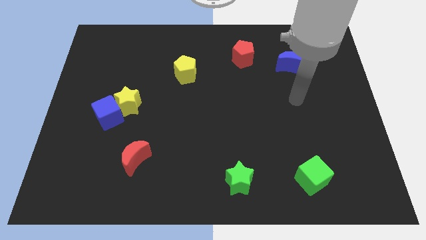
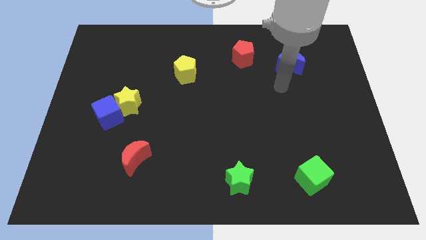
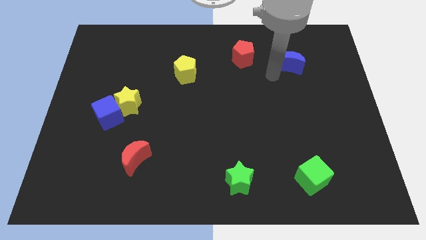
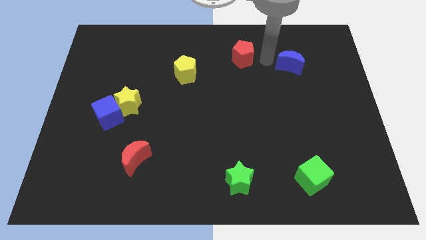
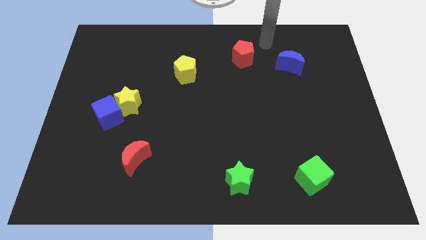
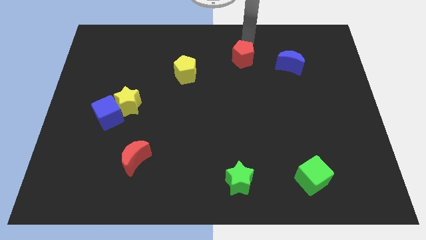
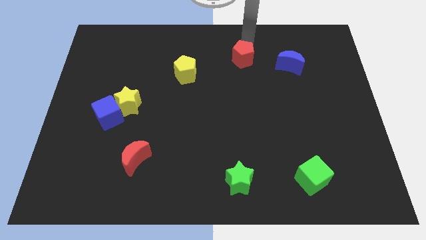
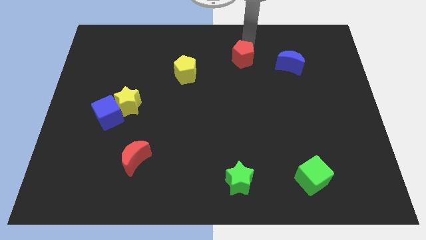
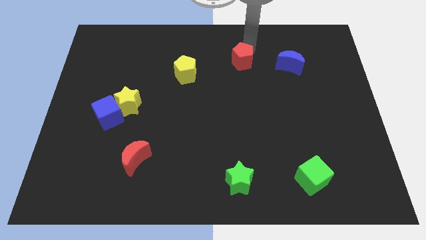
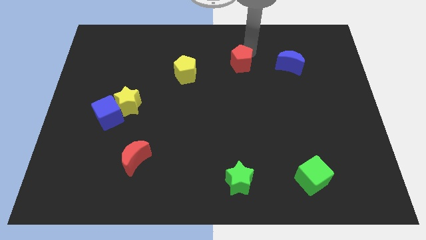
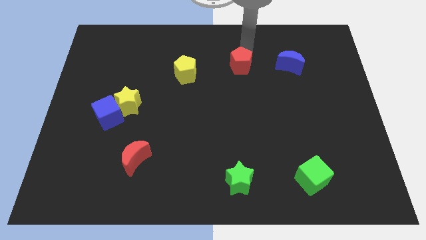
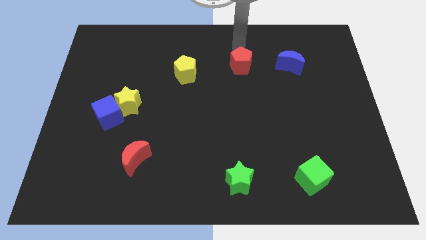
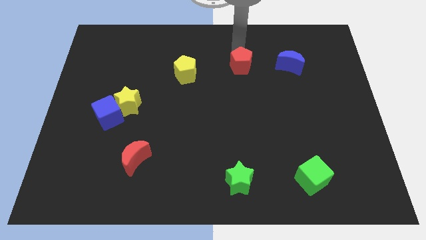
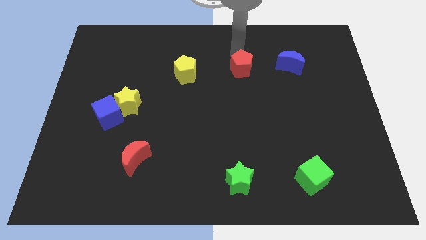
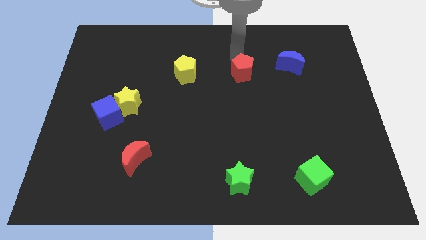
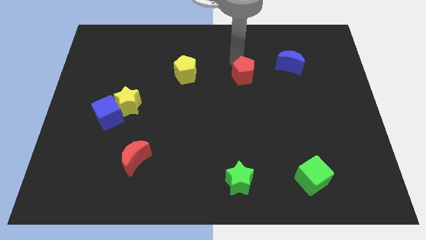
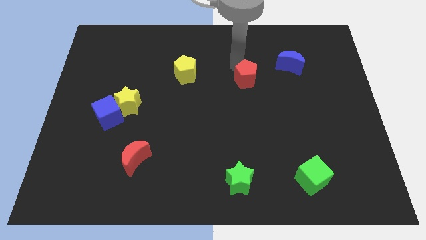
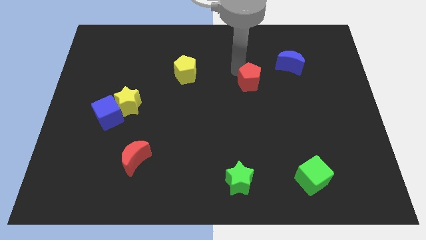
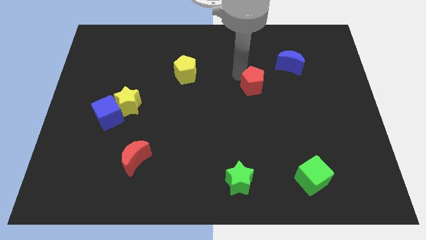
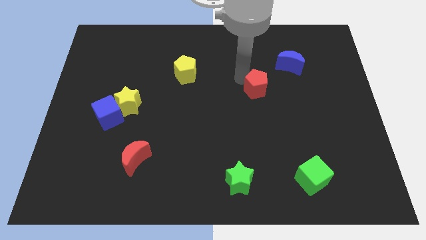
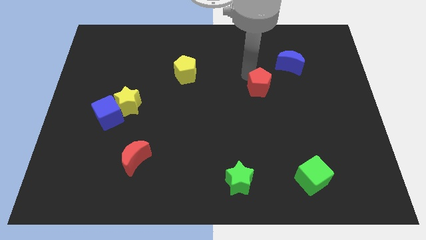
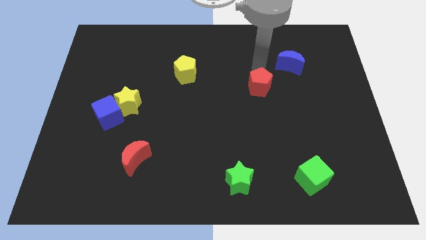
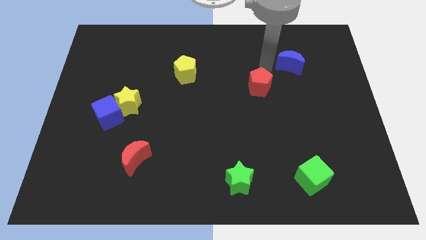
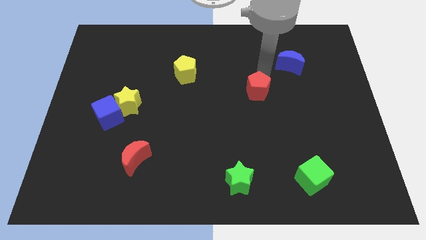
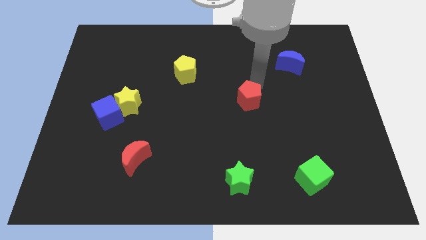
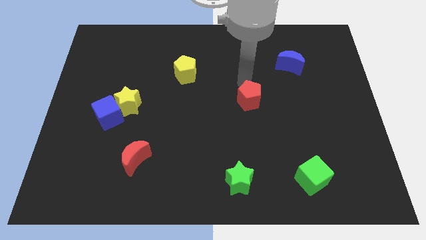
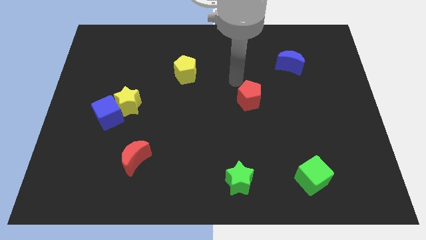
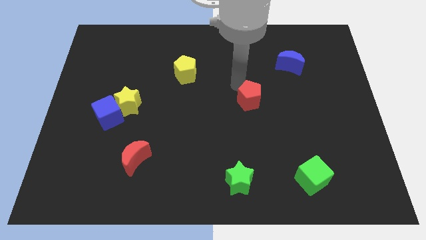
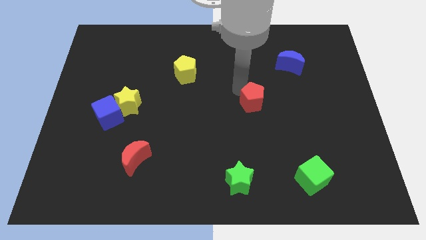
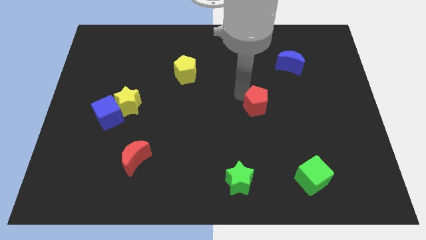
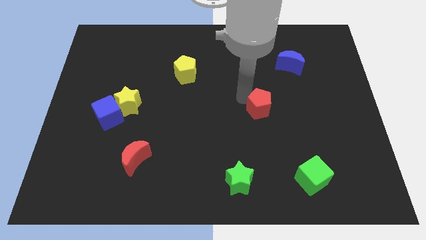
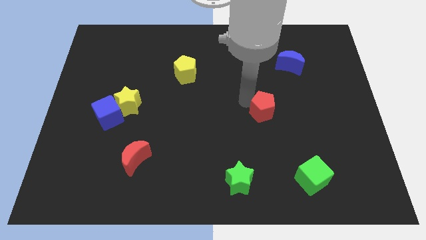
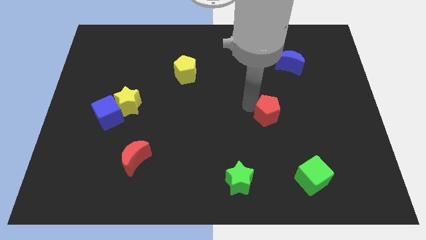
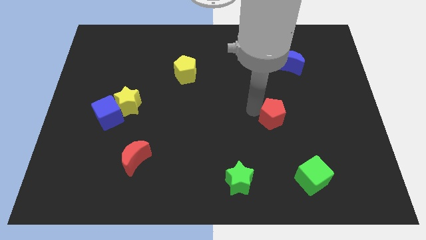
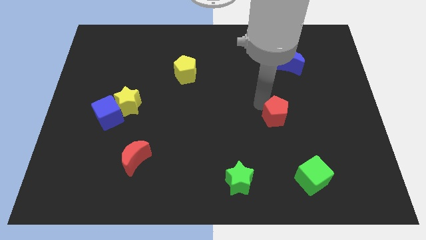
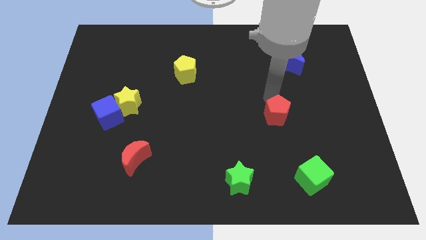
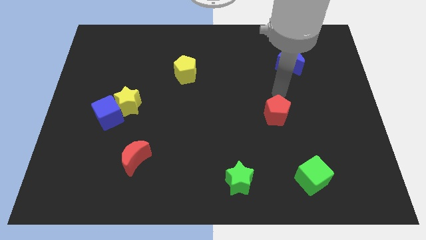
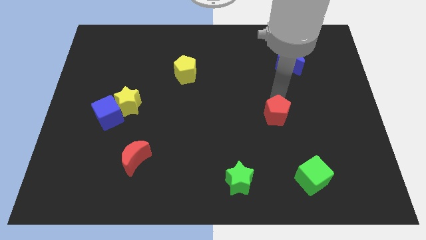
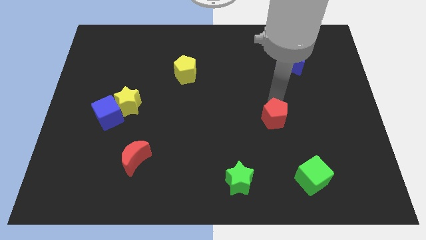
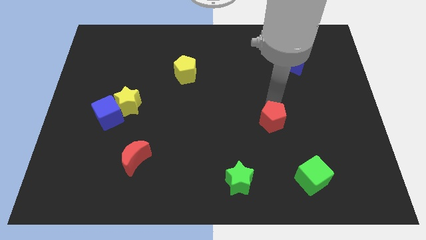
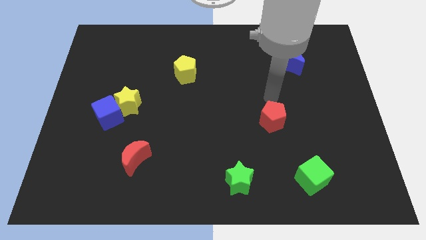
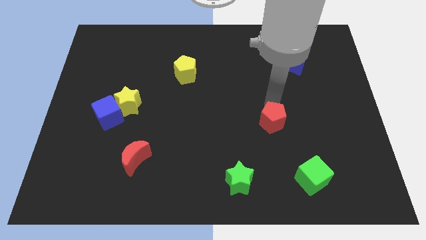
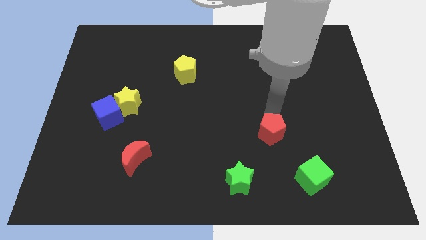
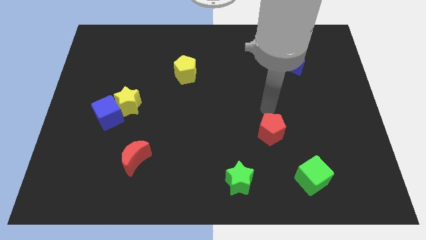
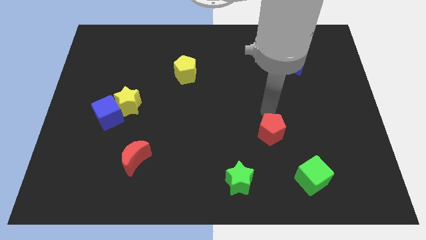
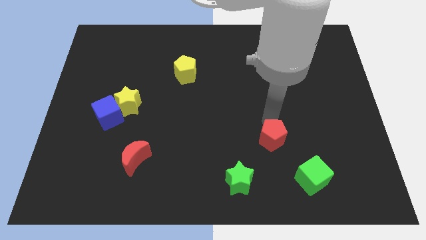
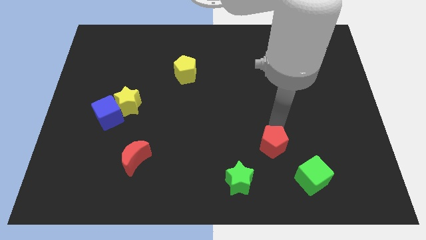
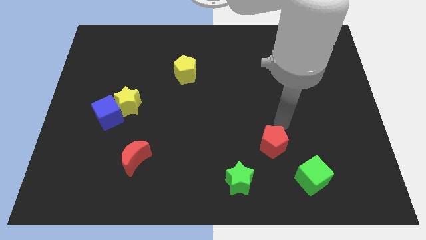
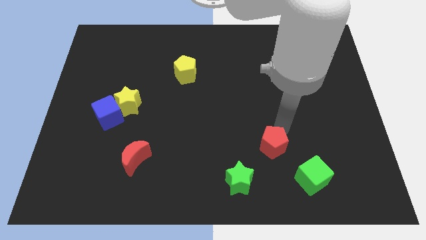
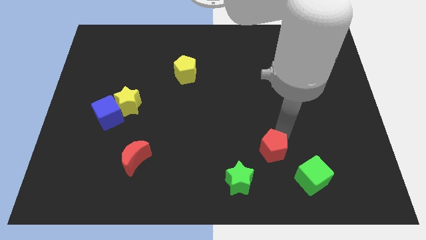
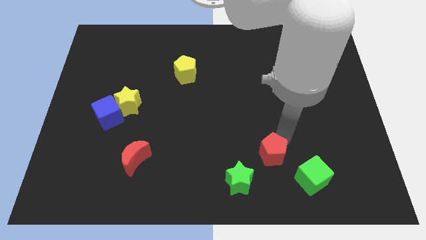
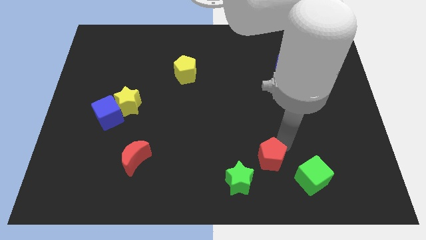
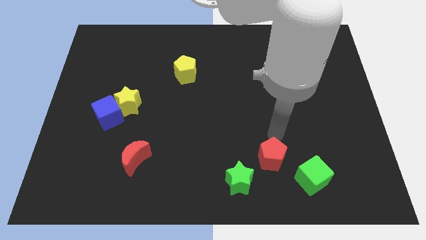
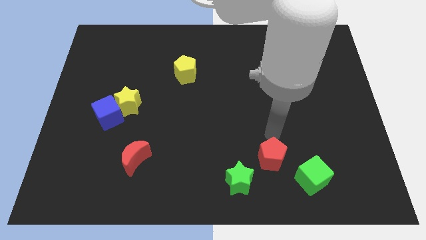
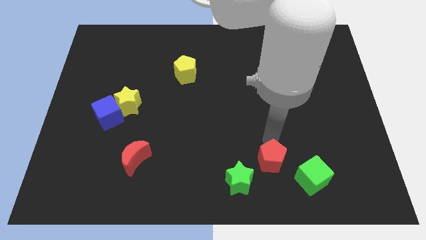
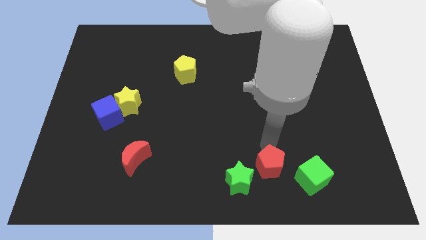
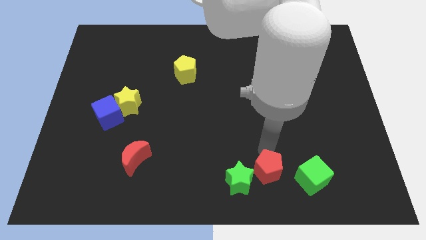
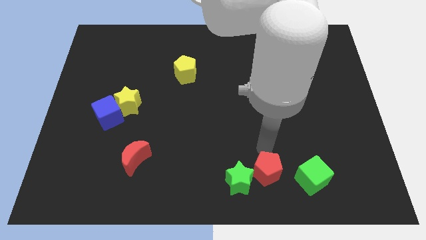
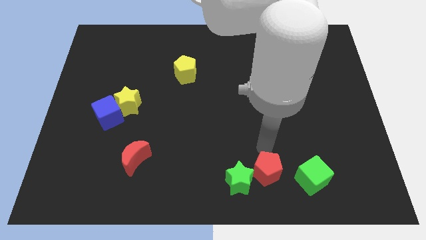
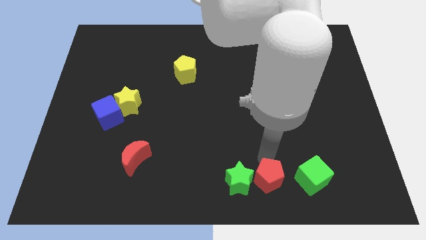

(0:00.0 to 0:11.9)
move the red pentagon to the bottom

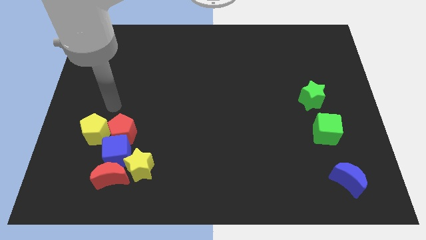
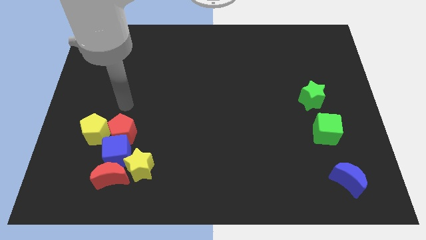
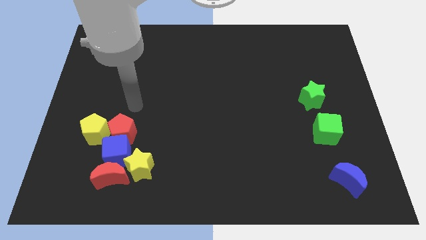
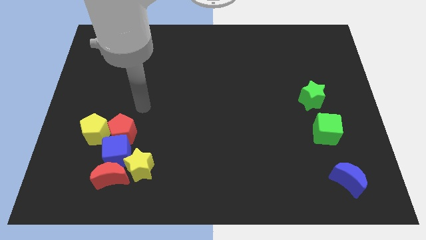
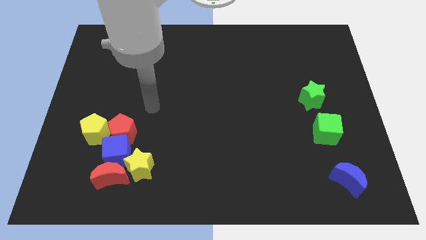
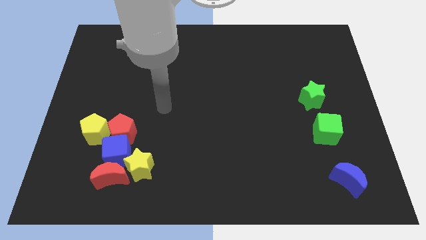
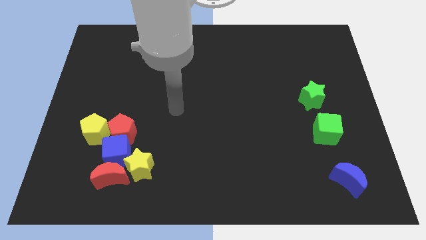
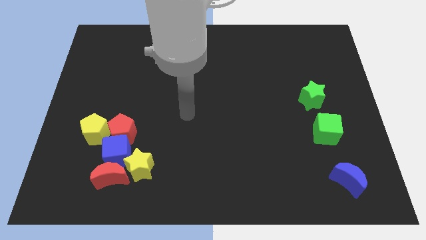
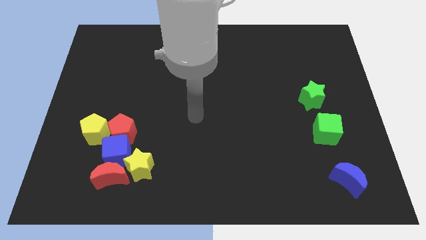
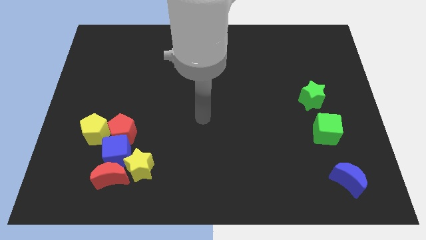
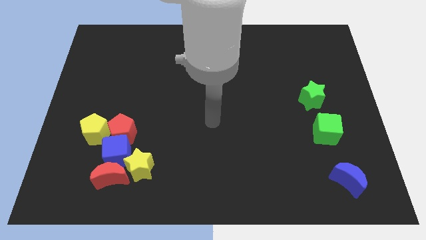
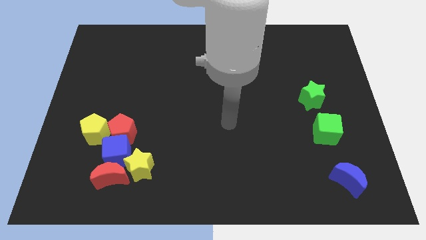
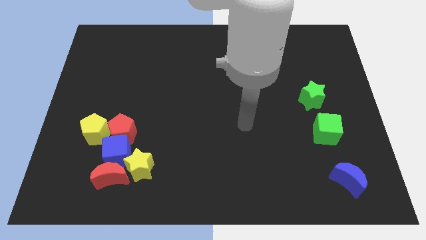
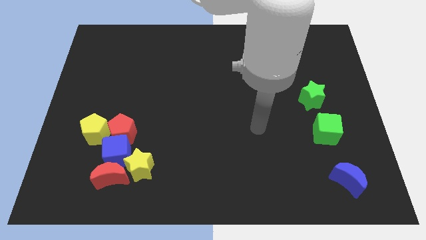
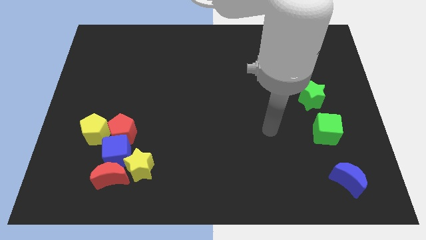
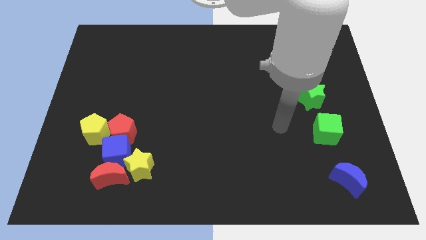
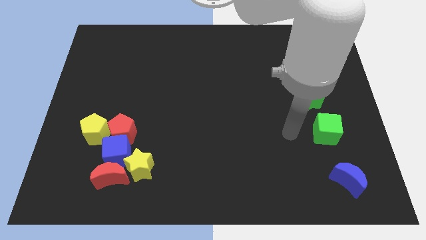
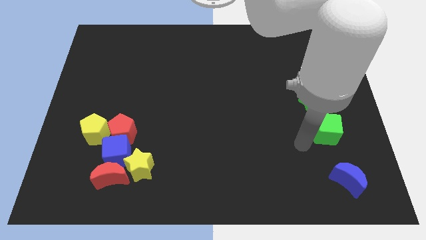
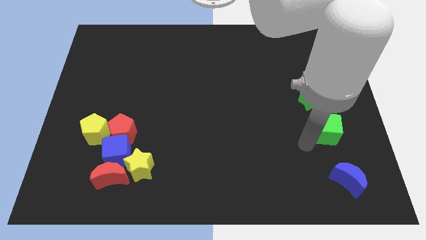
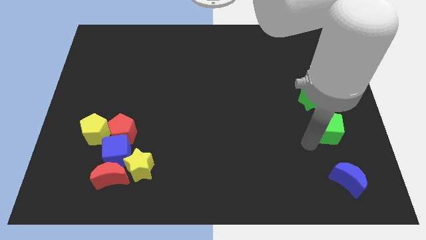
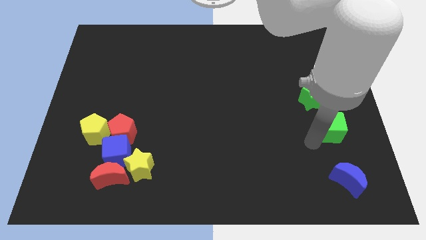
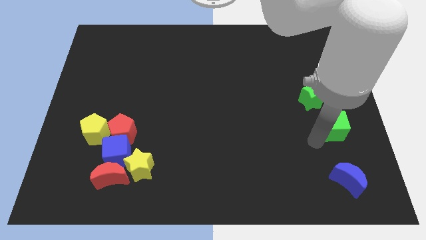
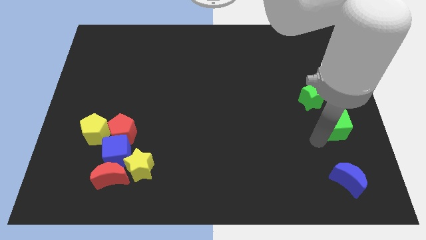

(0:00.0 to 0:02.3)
put the green cube to the center right
